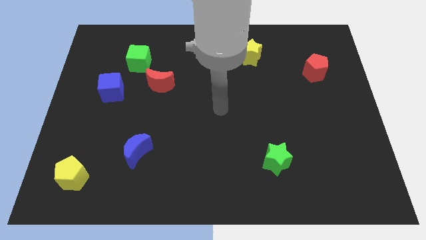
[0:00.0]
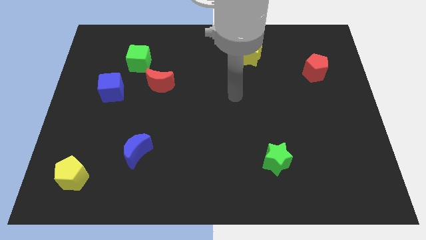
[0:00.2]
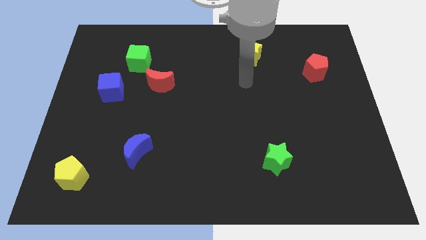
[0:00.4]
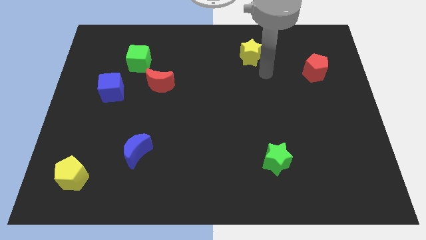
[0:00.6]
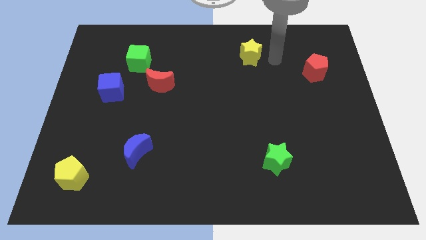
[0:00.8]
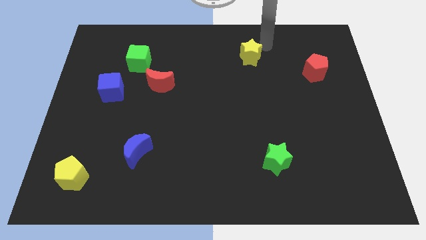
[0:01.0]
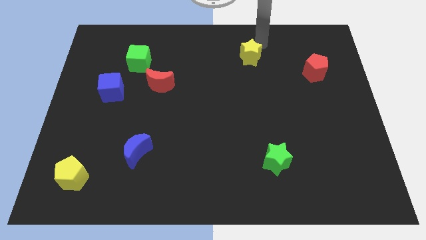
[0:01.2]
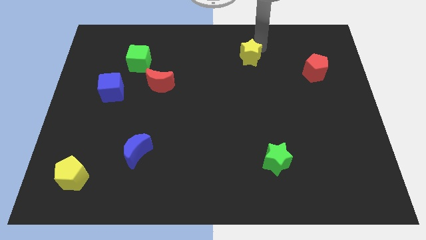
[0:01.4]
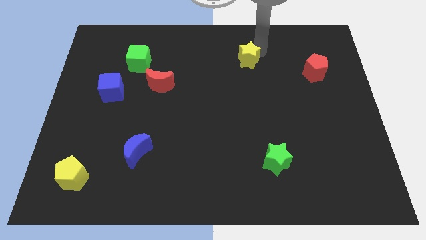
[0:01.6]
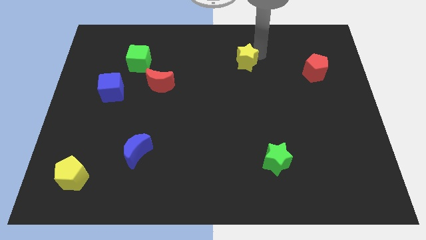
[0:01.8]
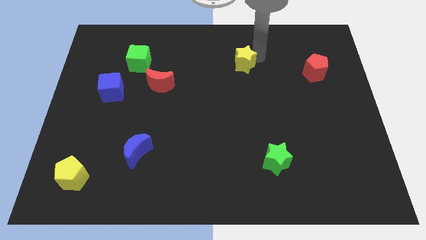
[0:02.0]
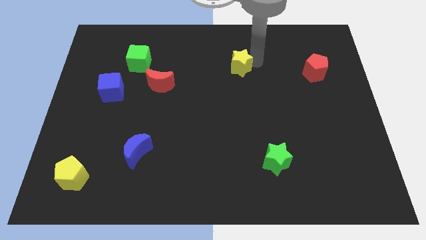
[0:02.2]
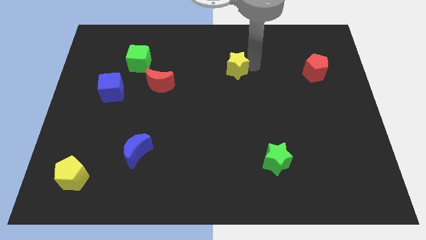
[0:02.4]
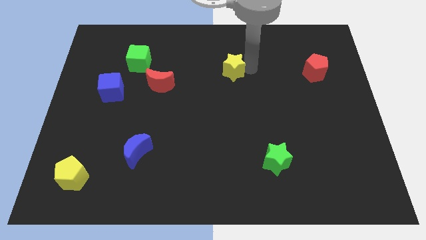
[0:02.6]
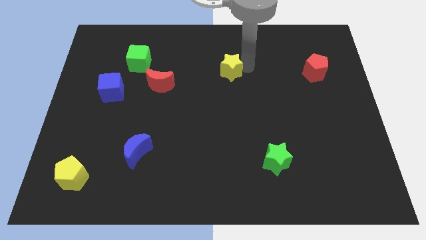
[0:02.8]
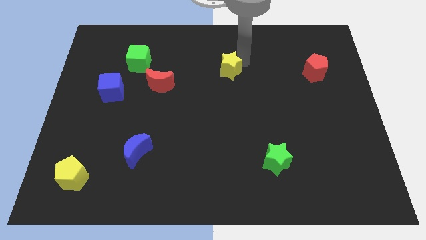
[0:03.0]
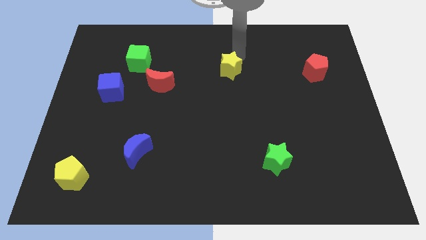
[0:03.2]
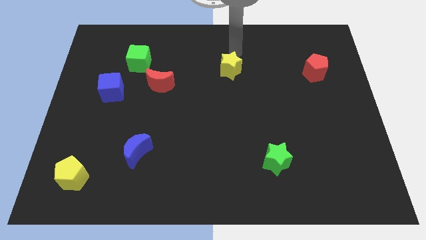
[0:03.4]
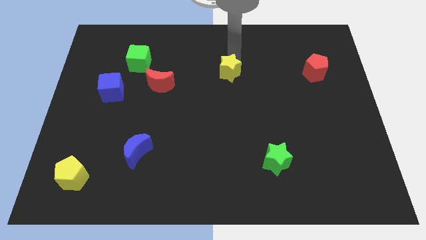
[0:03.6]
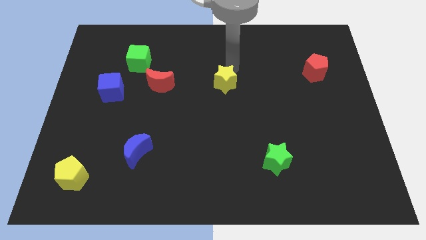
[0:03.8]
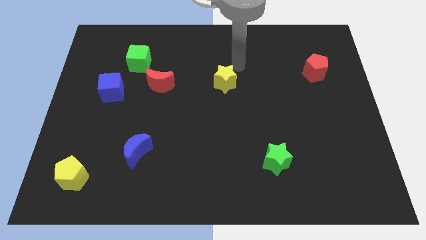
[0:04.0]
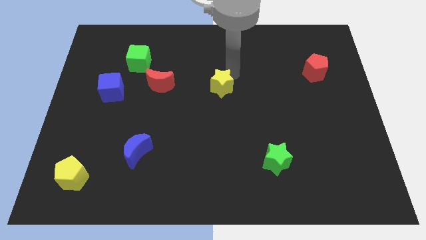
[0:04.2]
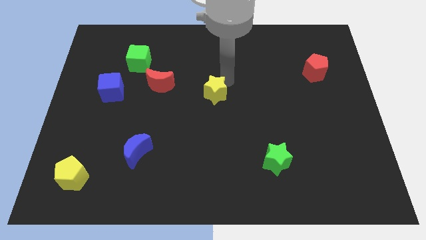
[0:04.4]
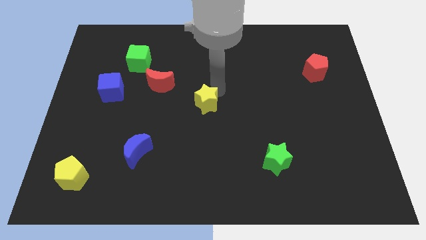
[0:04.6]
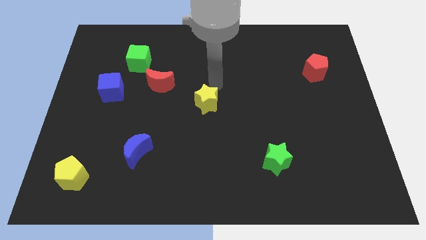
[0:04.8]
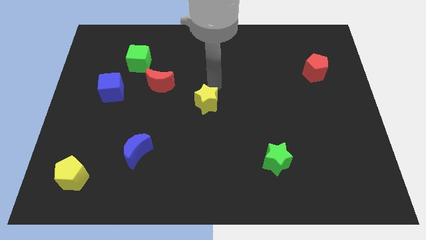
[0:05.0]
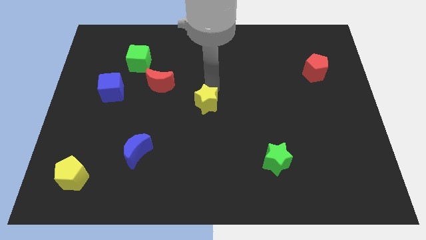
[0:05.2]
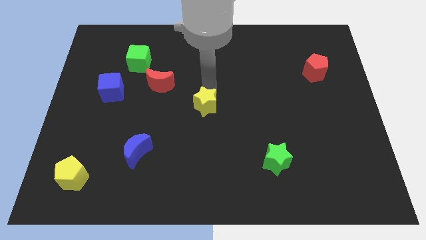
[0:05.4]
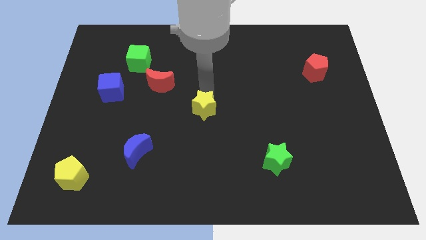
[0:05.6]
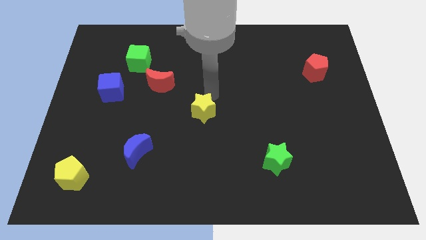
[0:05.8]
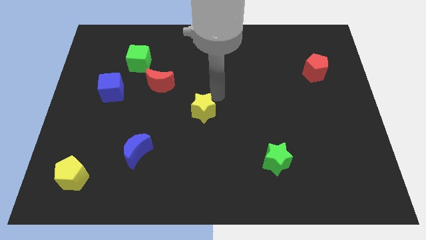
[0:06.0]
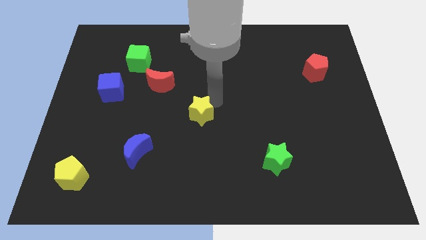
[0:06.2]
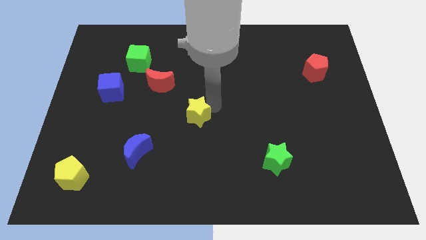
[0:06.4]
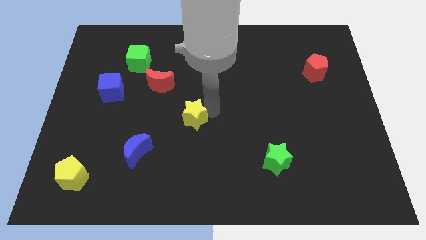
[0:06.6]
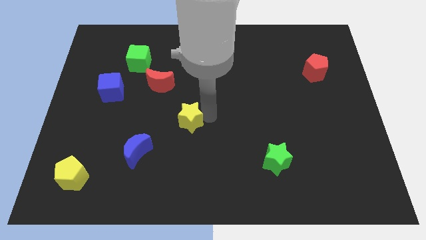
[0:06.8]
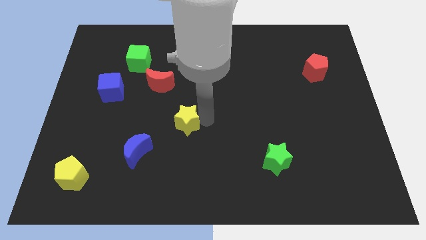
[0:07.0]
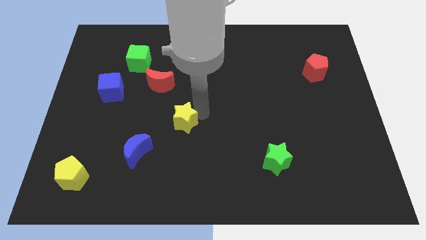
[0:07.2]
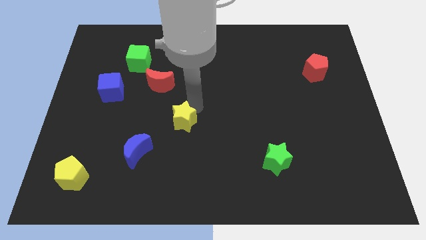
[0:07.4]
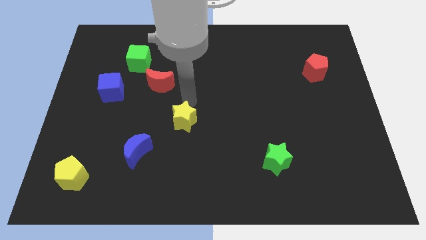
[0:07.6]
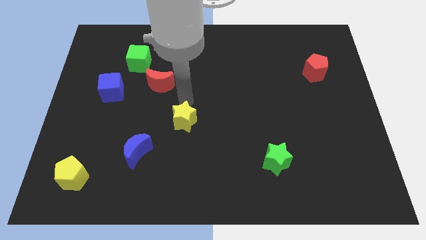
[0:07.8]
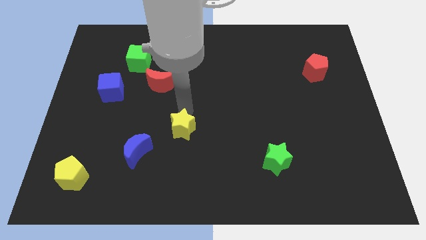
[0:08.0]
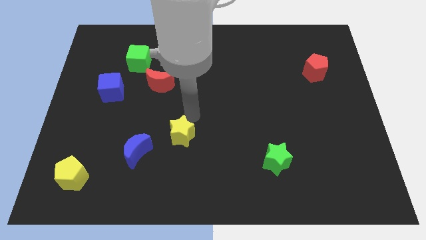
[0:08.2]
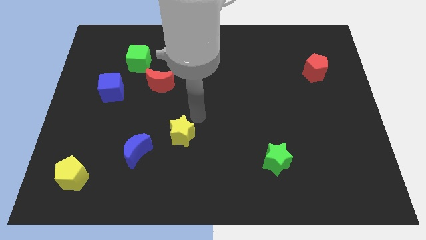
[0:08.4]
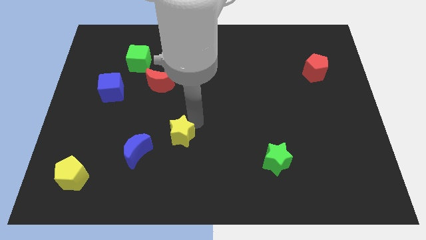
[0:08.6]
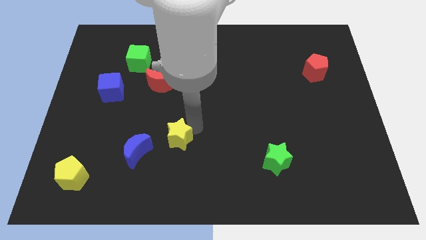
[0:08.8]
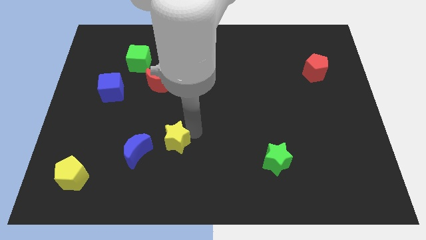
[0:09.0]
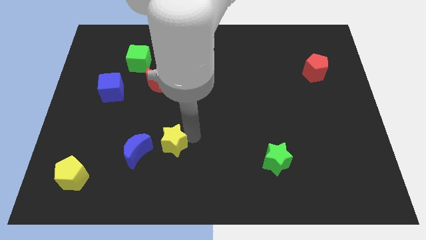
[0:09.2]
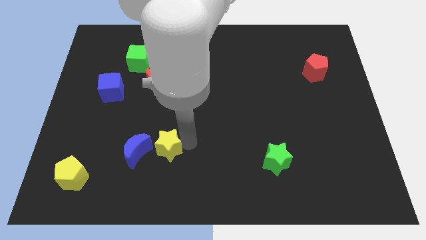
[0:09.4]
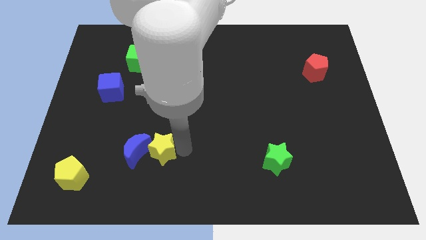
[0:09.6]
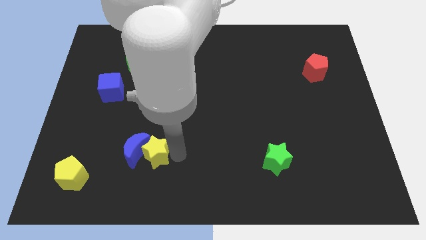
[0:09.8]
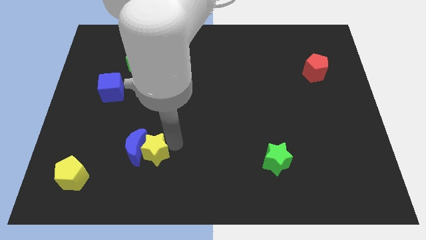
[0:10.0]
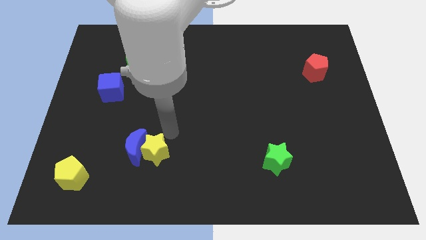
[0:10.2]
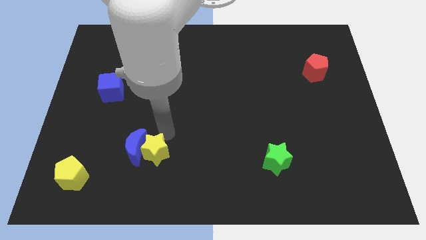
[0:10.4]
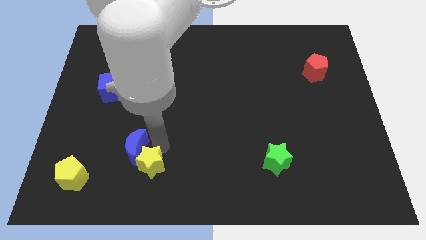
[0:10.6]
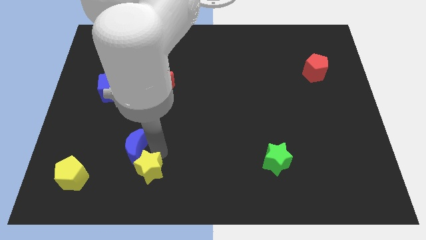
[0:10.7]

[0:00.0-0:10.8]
slide the yellow star right of the yellow pentagon

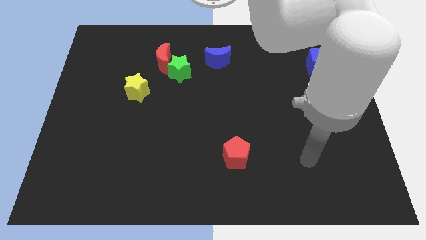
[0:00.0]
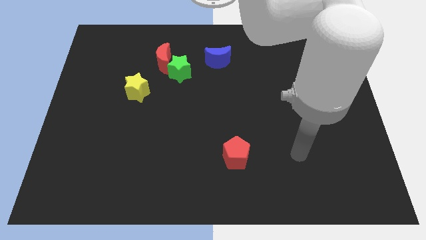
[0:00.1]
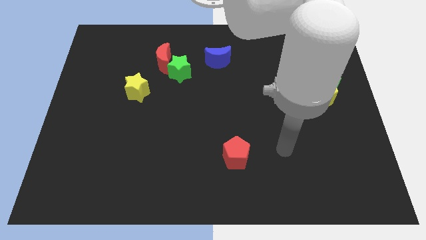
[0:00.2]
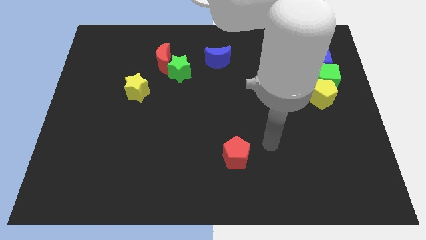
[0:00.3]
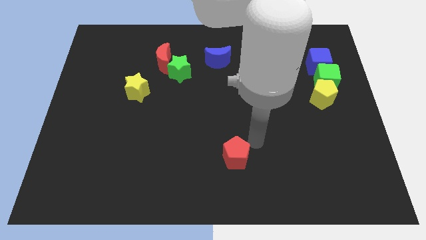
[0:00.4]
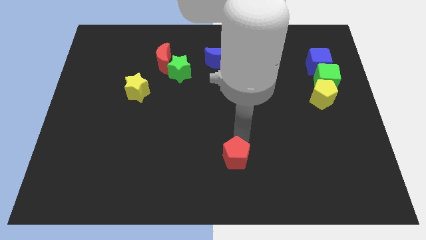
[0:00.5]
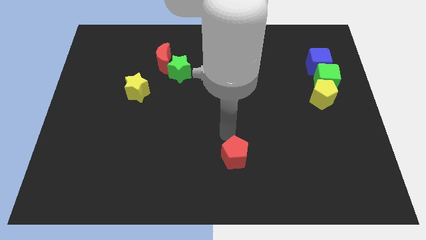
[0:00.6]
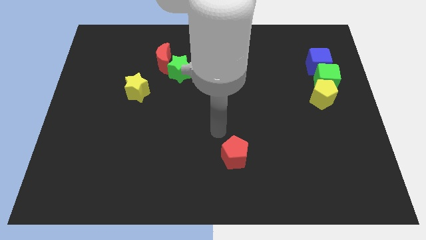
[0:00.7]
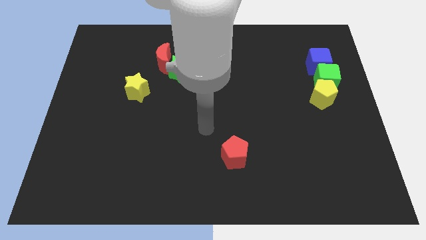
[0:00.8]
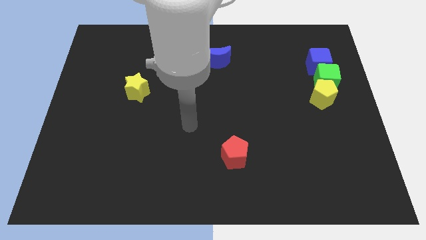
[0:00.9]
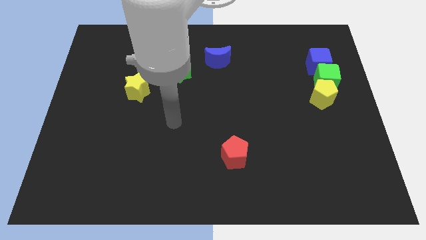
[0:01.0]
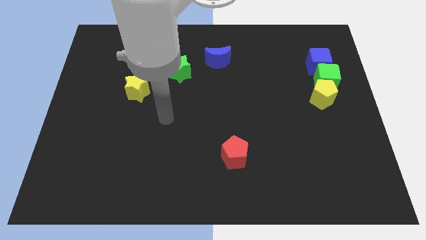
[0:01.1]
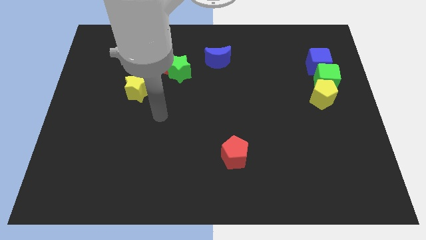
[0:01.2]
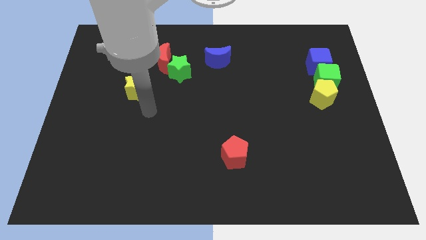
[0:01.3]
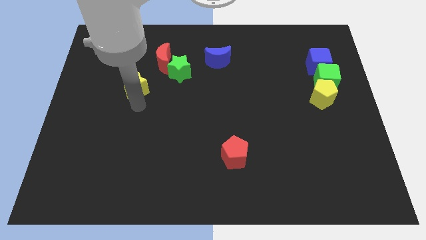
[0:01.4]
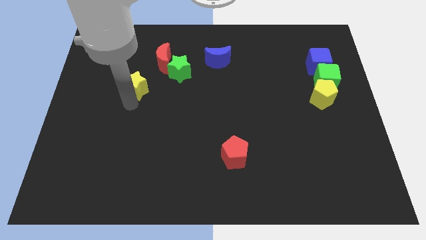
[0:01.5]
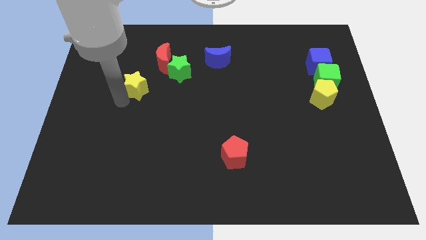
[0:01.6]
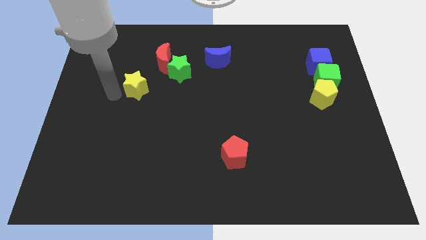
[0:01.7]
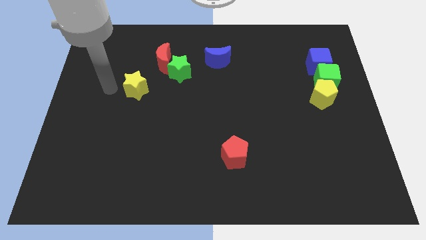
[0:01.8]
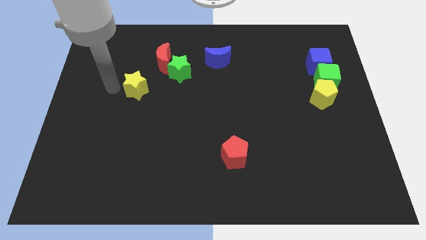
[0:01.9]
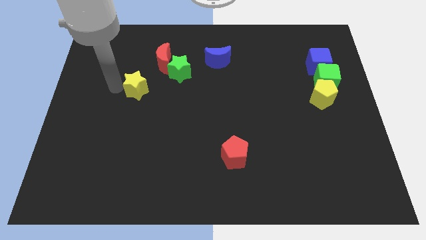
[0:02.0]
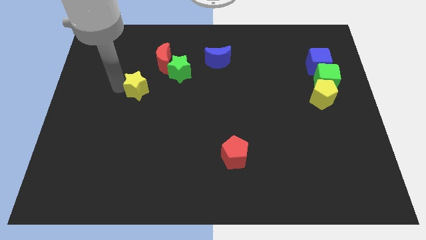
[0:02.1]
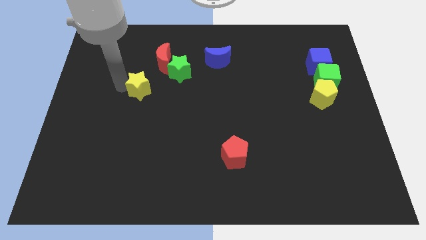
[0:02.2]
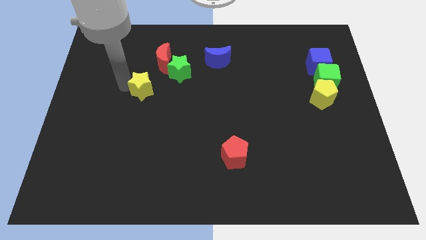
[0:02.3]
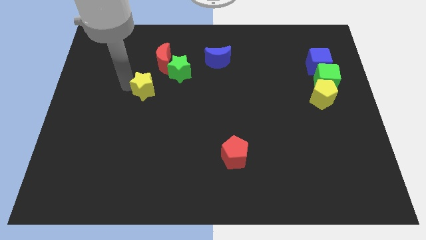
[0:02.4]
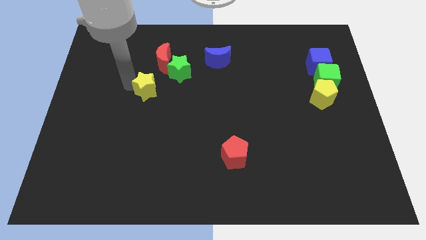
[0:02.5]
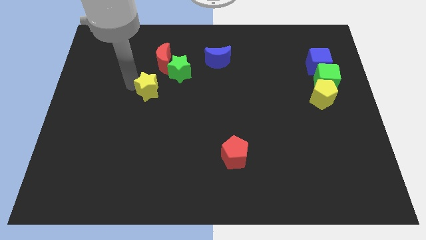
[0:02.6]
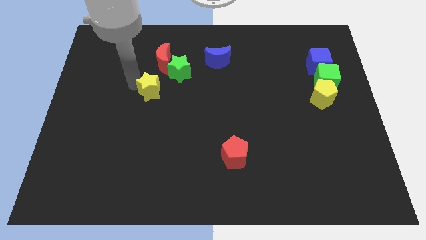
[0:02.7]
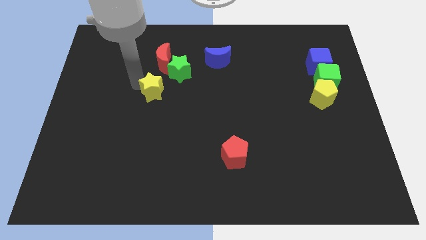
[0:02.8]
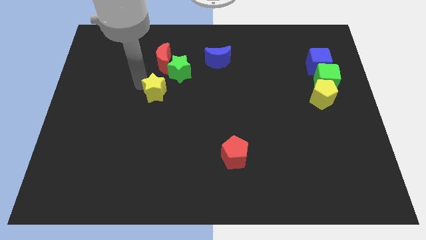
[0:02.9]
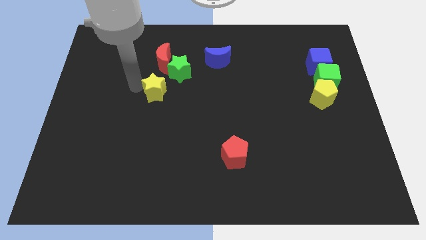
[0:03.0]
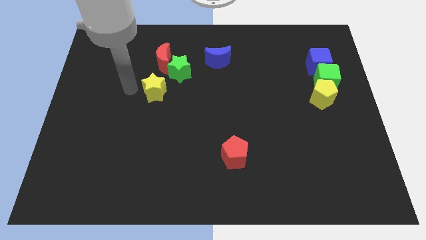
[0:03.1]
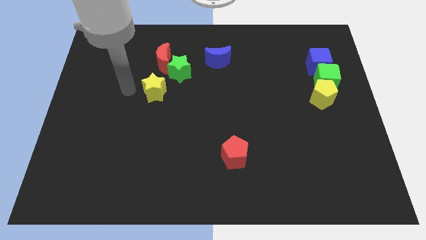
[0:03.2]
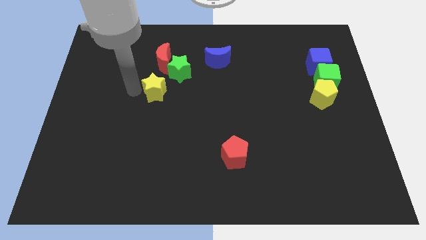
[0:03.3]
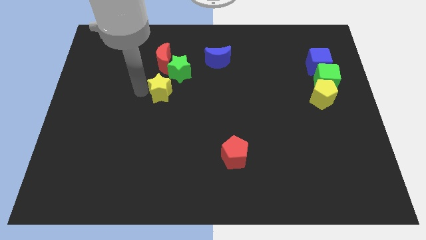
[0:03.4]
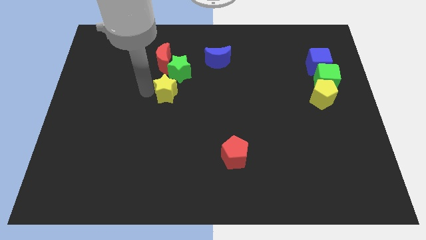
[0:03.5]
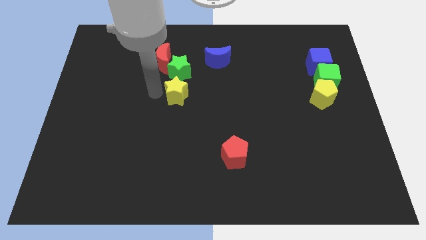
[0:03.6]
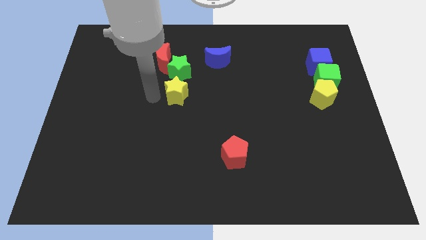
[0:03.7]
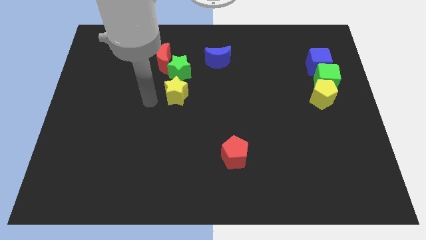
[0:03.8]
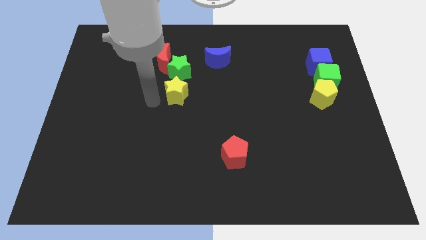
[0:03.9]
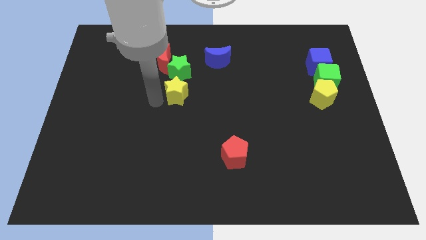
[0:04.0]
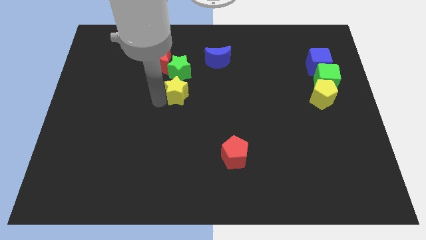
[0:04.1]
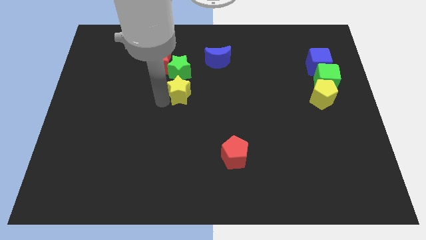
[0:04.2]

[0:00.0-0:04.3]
slide the yellow star to the bottom right of the green star
